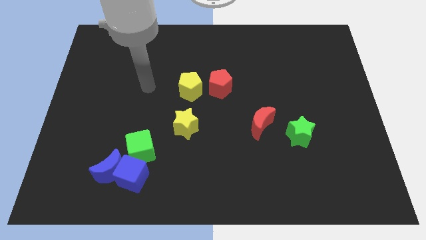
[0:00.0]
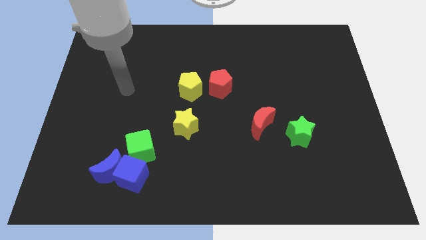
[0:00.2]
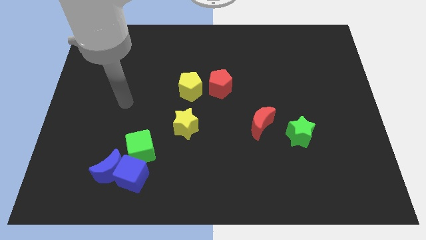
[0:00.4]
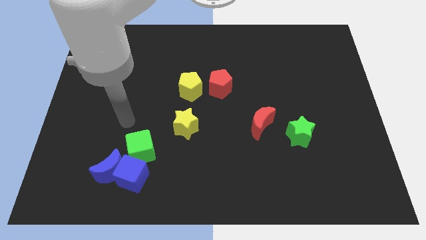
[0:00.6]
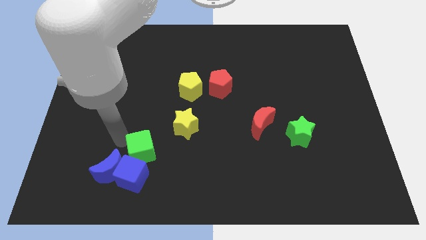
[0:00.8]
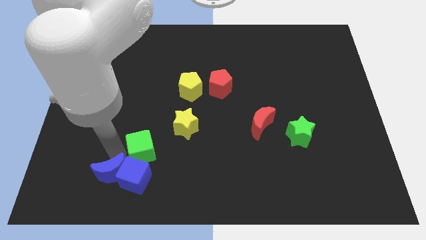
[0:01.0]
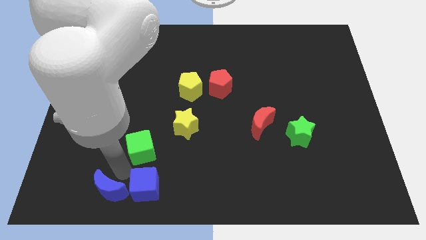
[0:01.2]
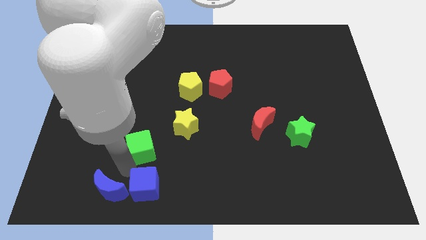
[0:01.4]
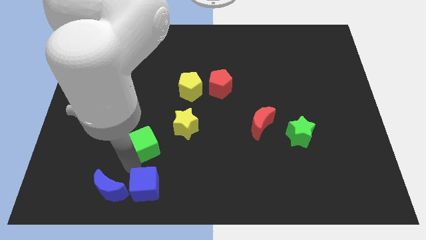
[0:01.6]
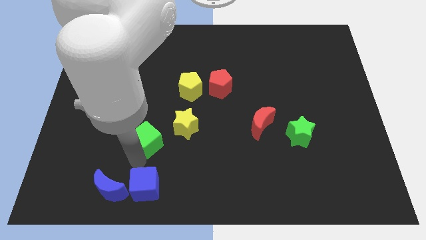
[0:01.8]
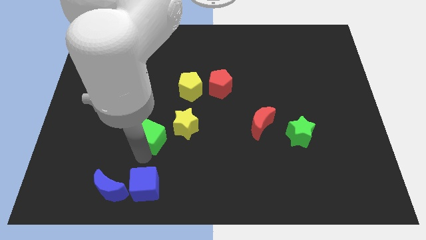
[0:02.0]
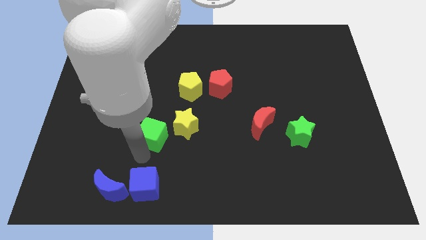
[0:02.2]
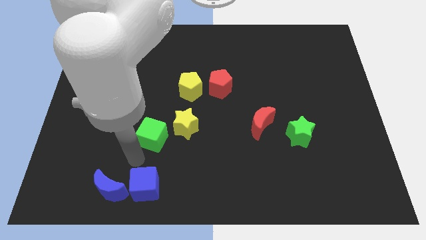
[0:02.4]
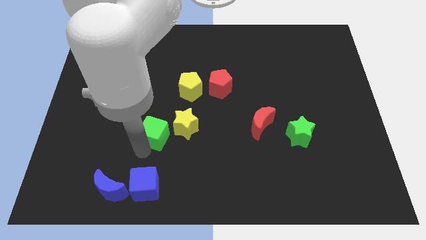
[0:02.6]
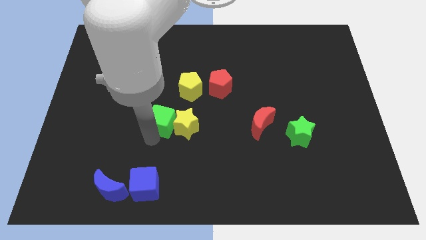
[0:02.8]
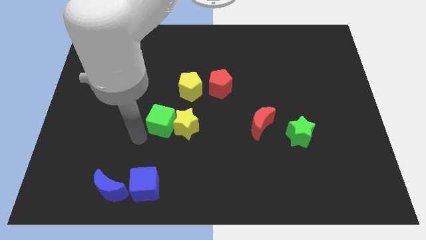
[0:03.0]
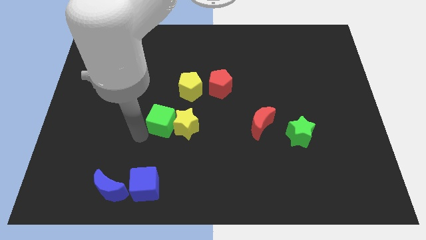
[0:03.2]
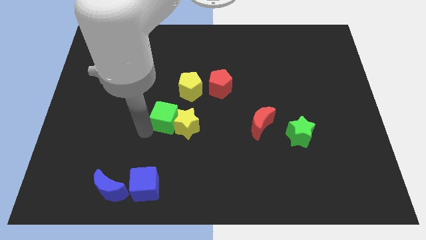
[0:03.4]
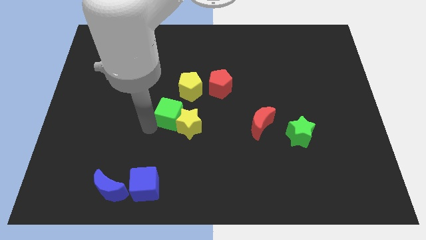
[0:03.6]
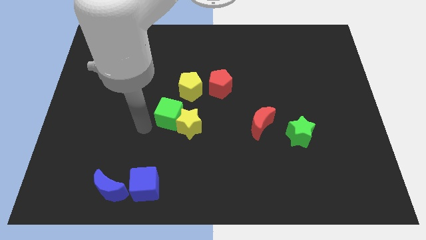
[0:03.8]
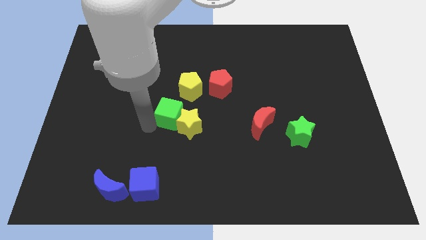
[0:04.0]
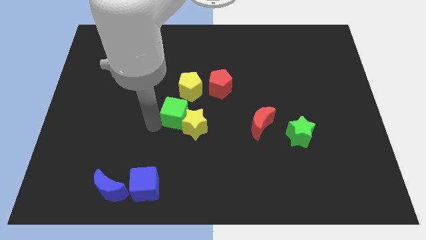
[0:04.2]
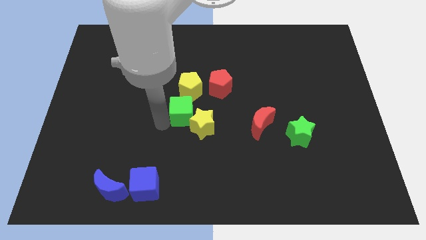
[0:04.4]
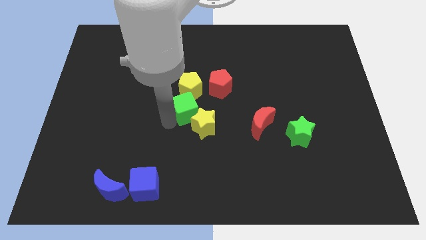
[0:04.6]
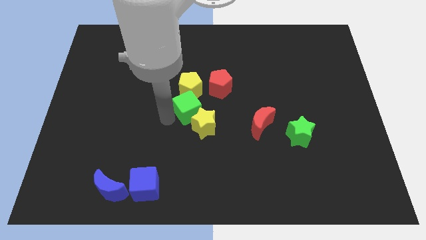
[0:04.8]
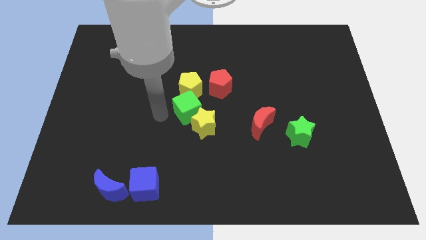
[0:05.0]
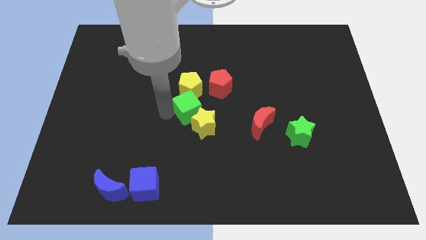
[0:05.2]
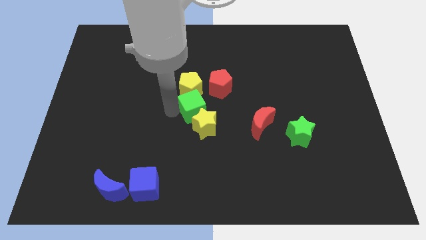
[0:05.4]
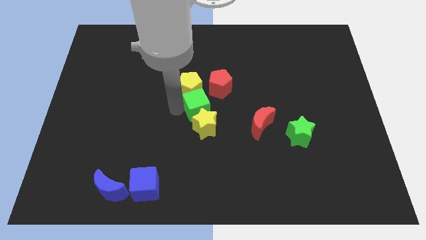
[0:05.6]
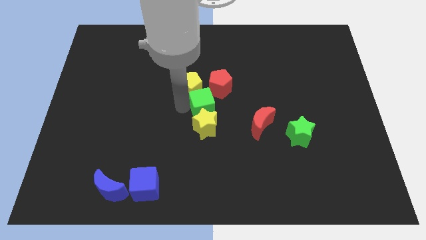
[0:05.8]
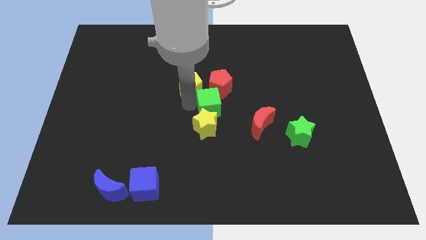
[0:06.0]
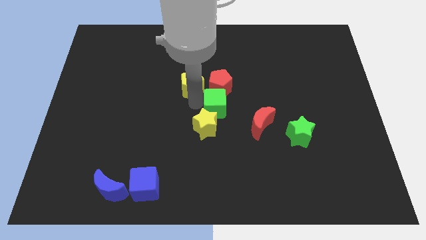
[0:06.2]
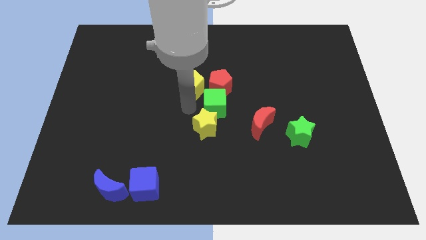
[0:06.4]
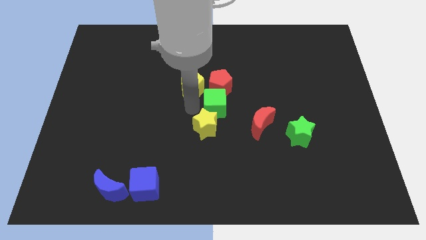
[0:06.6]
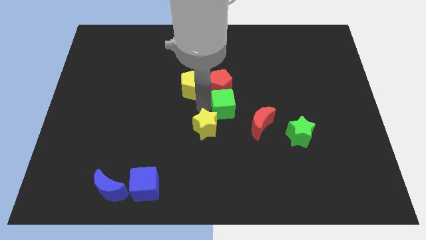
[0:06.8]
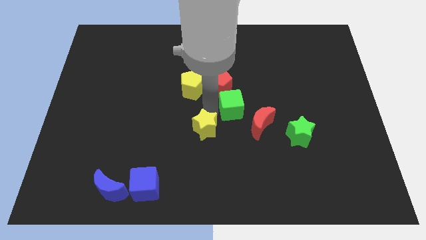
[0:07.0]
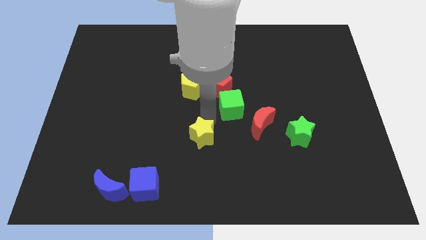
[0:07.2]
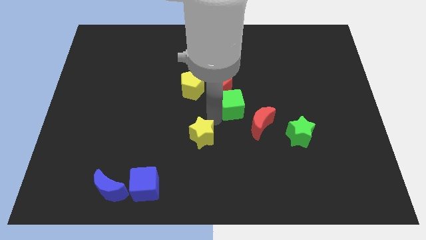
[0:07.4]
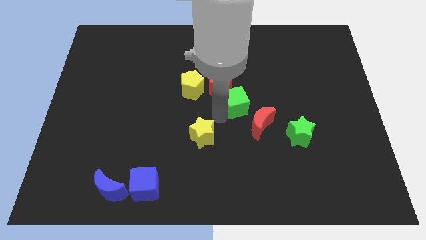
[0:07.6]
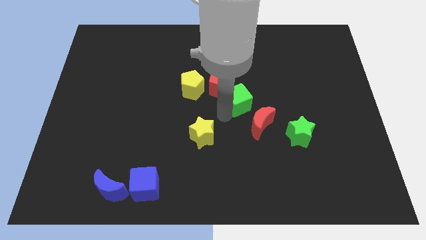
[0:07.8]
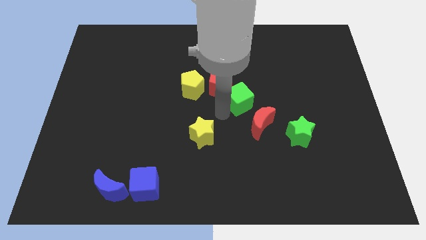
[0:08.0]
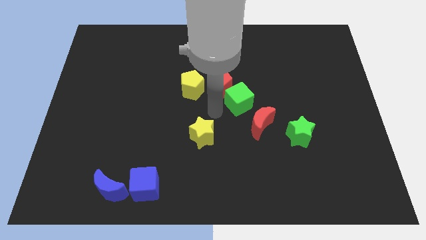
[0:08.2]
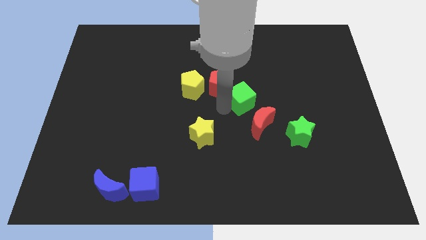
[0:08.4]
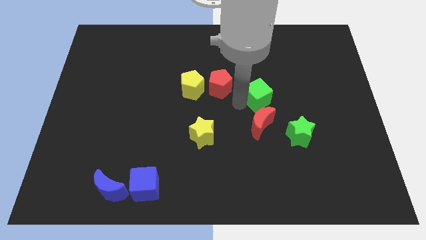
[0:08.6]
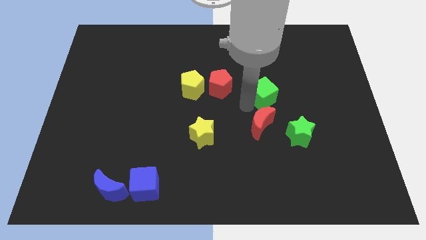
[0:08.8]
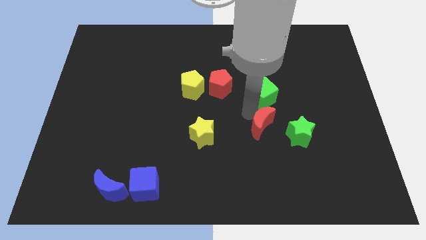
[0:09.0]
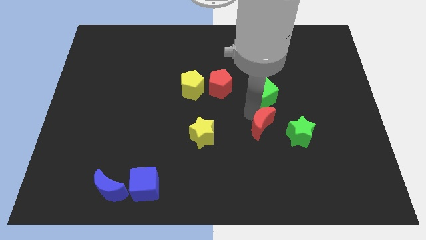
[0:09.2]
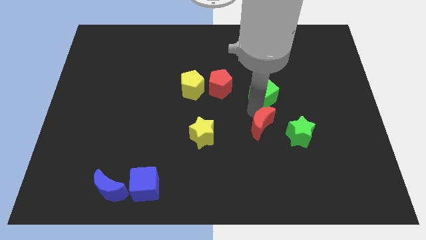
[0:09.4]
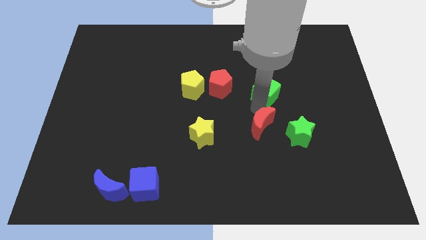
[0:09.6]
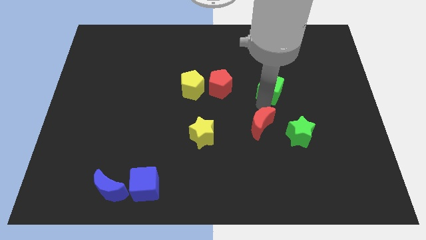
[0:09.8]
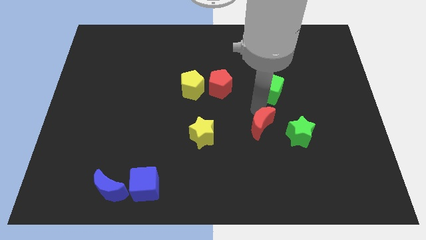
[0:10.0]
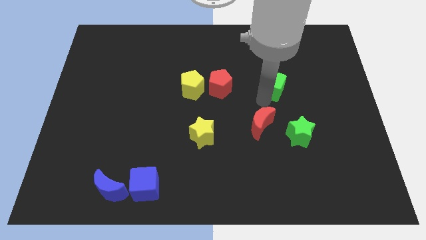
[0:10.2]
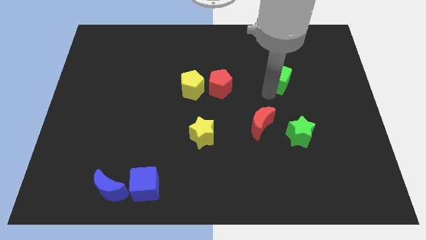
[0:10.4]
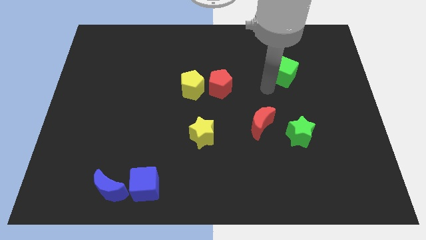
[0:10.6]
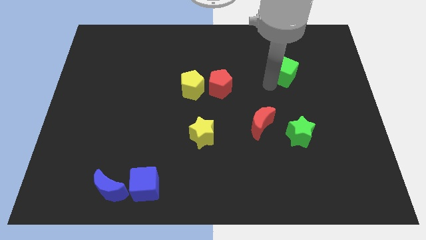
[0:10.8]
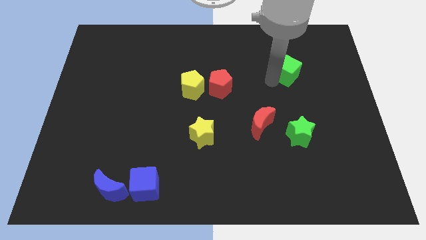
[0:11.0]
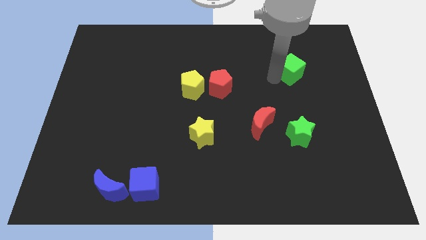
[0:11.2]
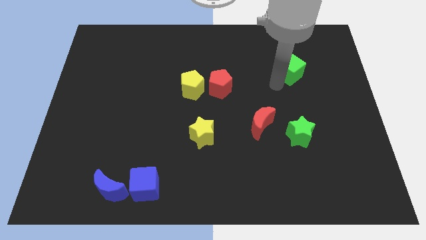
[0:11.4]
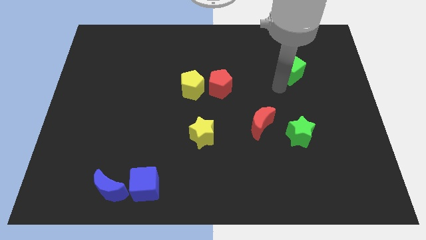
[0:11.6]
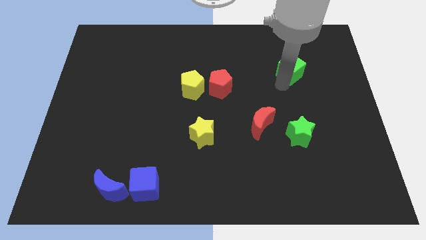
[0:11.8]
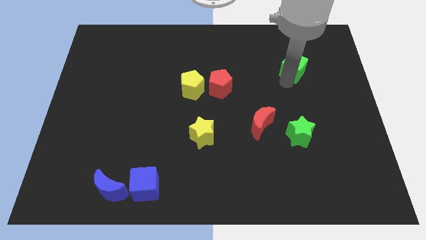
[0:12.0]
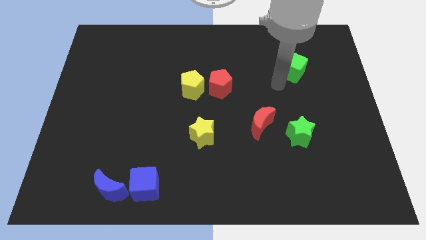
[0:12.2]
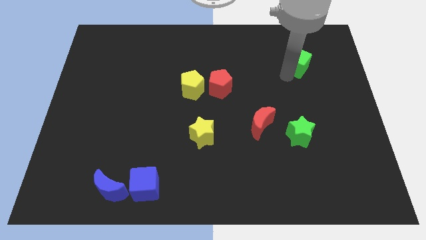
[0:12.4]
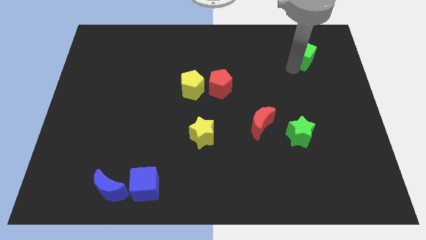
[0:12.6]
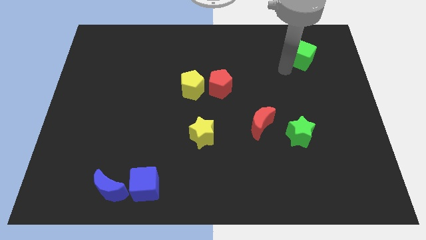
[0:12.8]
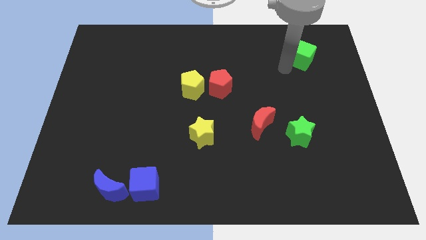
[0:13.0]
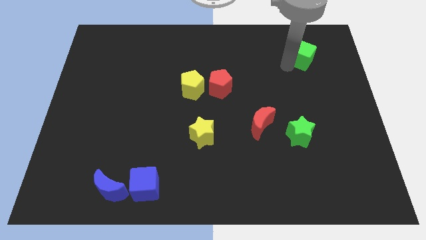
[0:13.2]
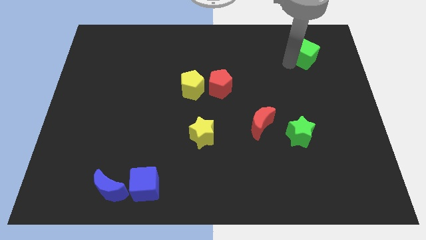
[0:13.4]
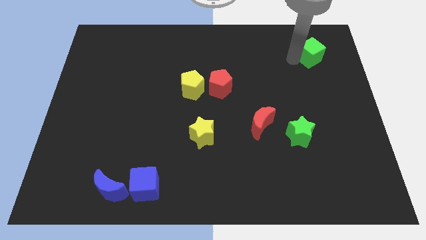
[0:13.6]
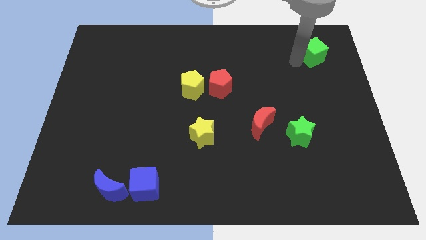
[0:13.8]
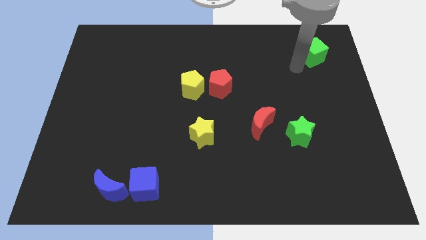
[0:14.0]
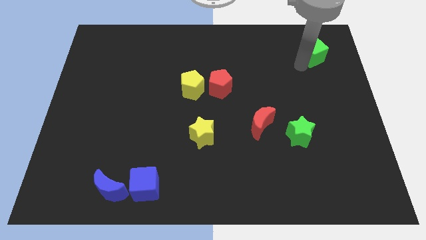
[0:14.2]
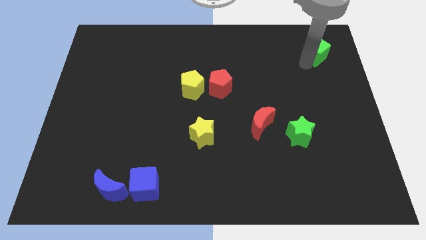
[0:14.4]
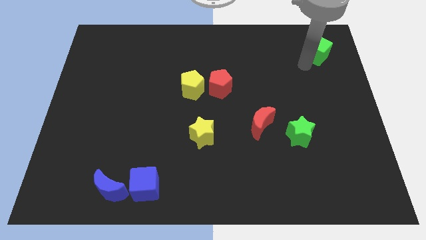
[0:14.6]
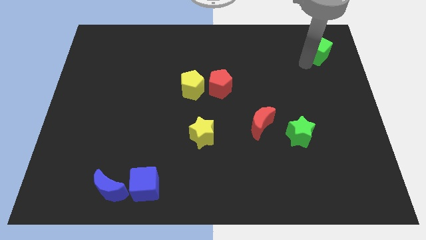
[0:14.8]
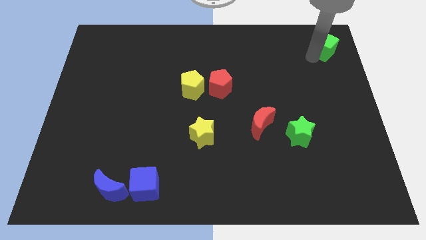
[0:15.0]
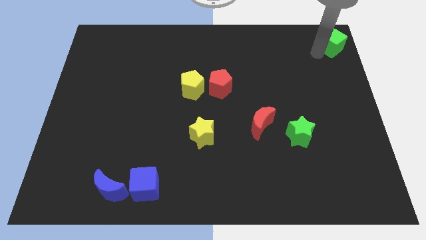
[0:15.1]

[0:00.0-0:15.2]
slide the green cube to the top right of the board
